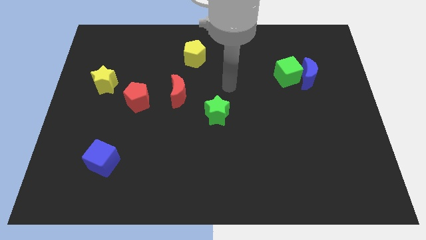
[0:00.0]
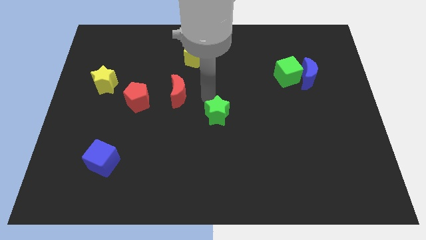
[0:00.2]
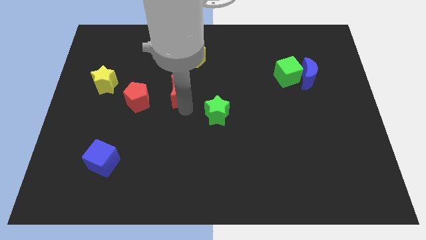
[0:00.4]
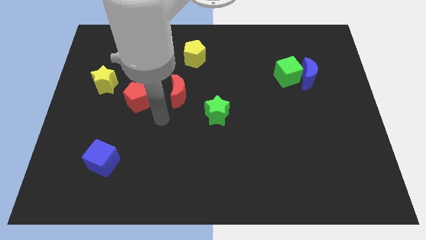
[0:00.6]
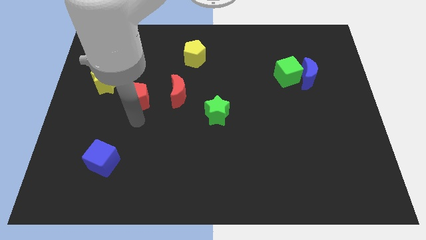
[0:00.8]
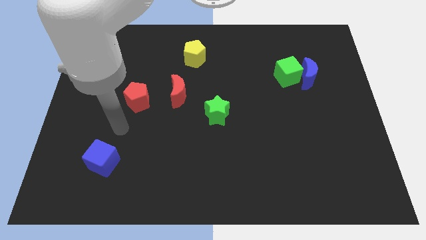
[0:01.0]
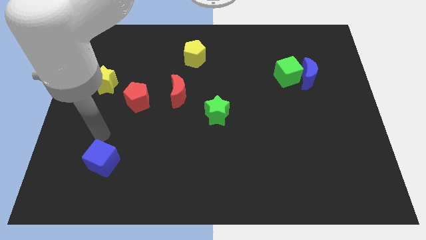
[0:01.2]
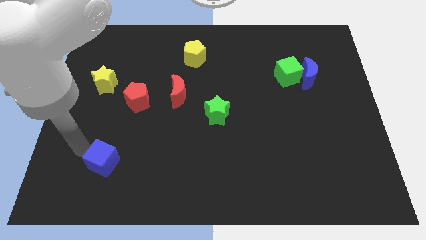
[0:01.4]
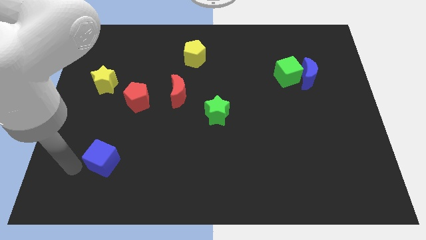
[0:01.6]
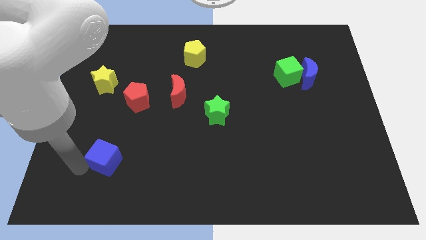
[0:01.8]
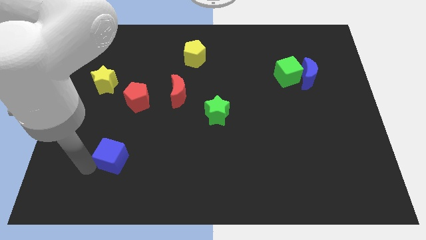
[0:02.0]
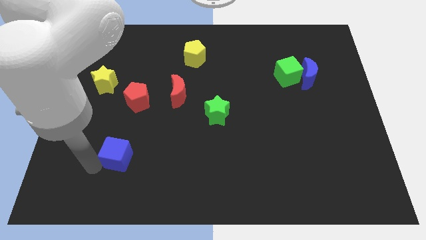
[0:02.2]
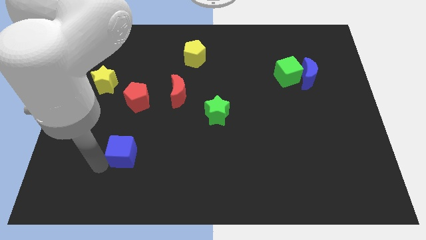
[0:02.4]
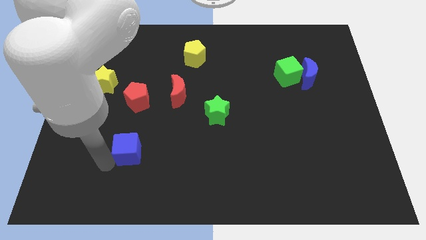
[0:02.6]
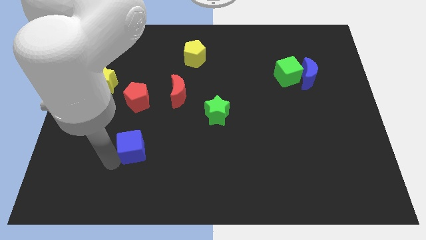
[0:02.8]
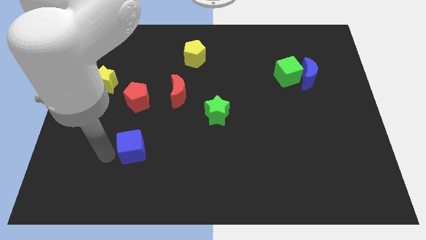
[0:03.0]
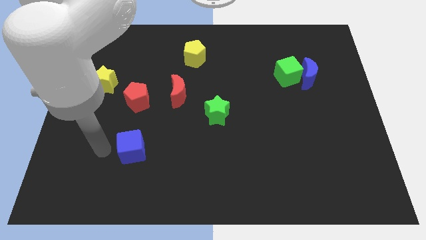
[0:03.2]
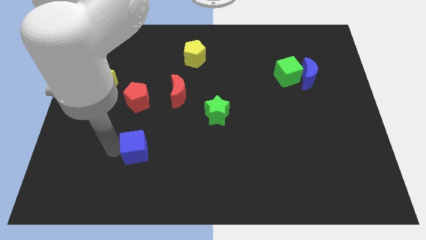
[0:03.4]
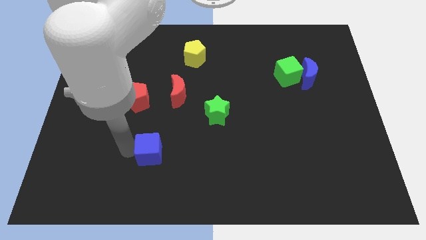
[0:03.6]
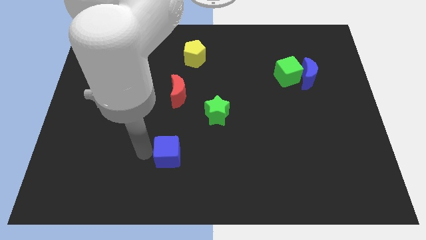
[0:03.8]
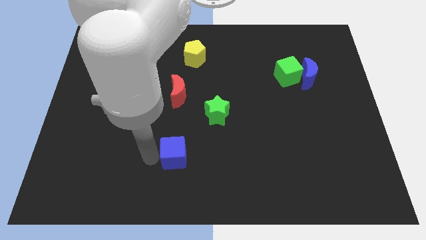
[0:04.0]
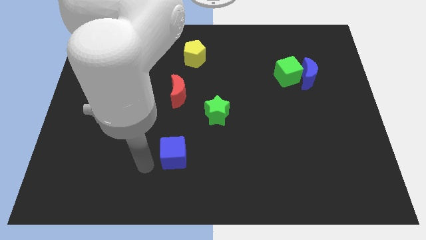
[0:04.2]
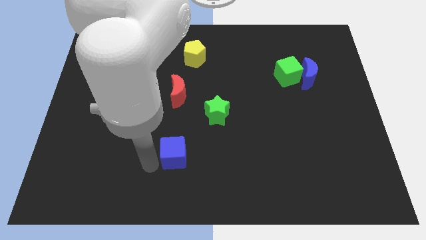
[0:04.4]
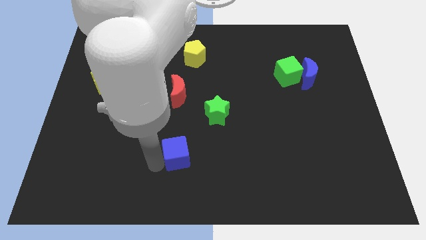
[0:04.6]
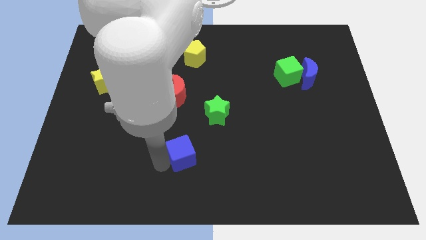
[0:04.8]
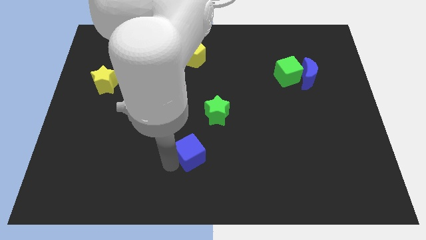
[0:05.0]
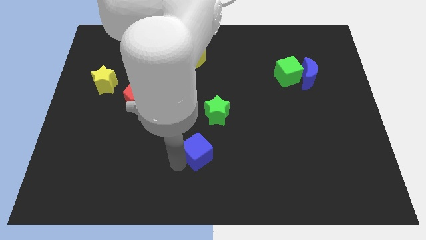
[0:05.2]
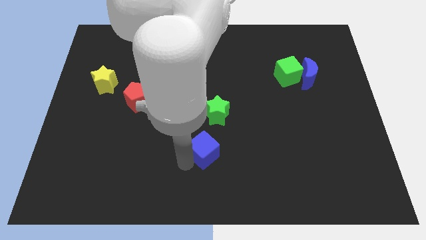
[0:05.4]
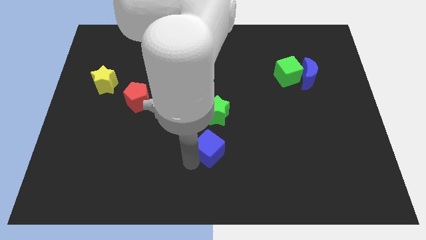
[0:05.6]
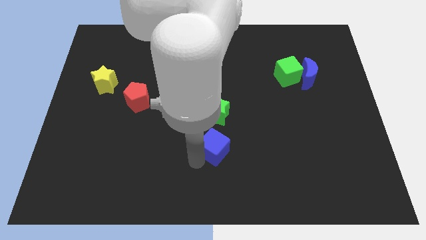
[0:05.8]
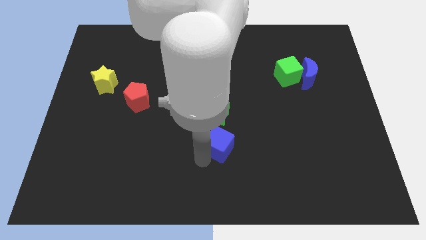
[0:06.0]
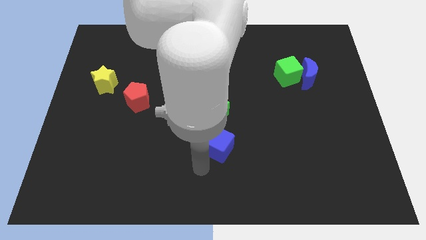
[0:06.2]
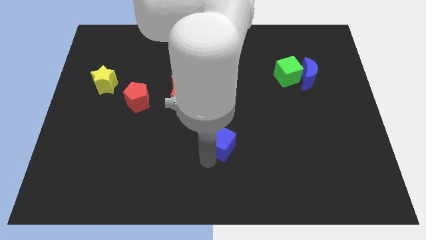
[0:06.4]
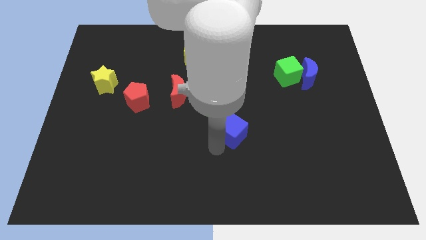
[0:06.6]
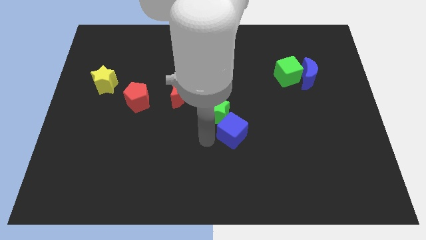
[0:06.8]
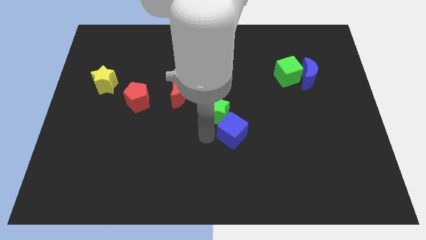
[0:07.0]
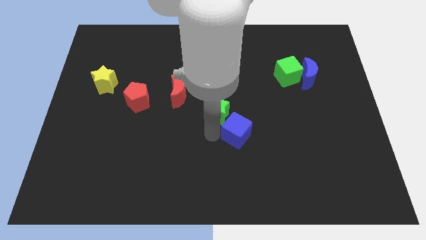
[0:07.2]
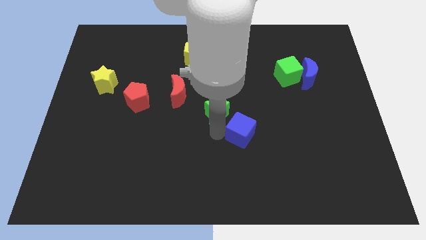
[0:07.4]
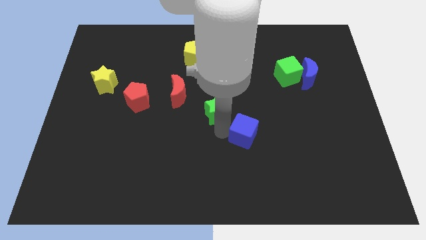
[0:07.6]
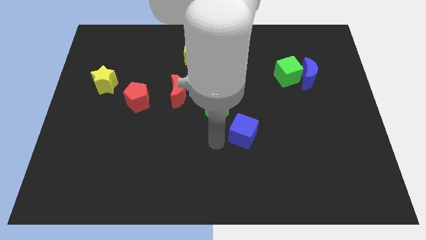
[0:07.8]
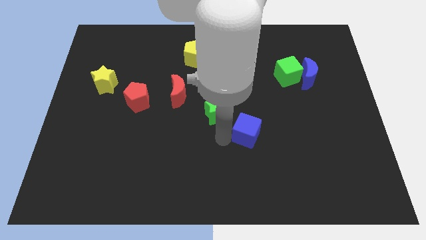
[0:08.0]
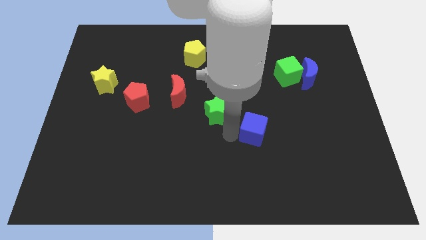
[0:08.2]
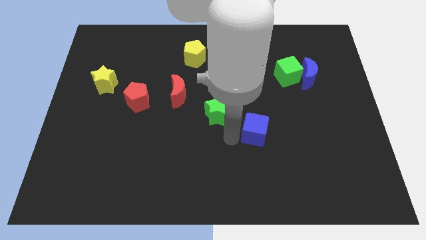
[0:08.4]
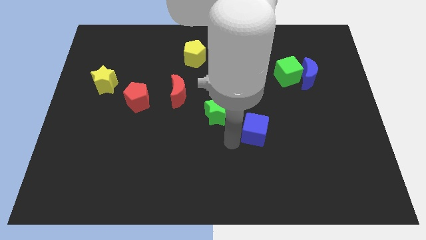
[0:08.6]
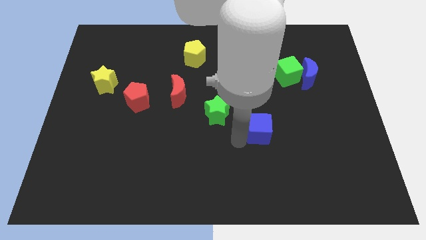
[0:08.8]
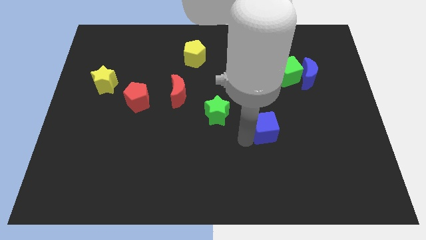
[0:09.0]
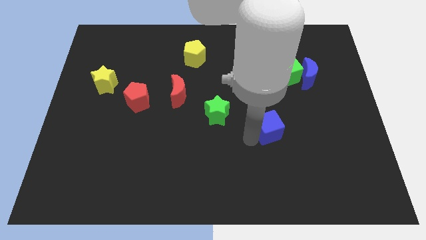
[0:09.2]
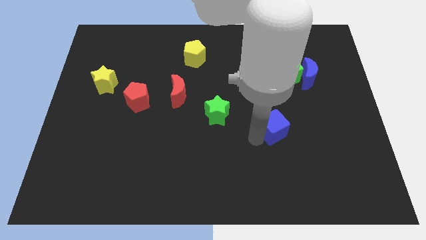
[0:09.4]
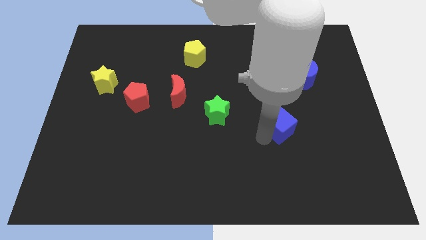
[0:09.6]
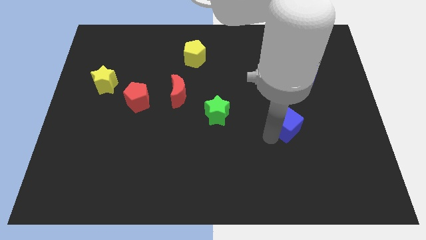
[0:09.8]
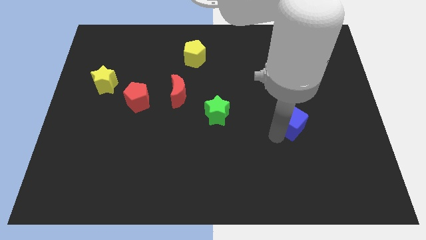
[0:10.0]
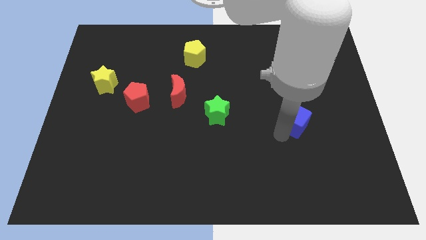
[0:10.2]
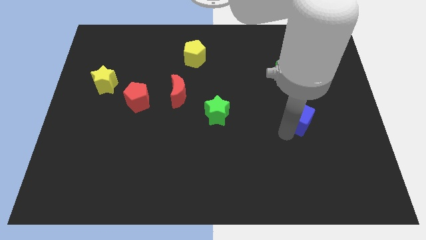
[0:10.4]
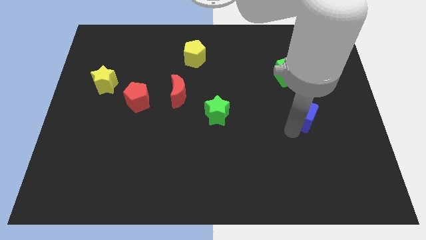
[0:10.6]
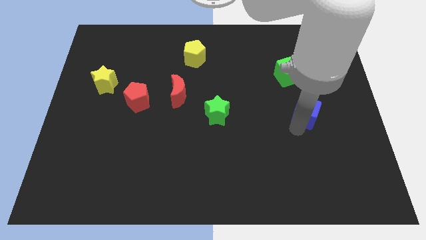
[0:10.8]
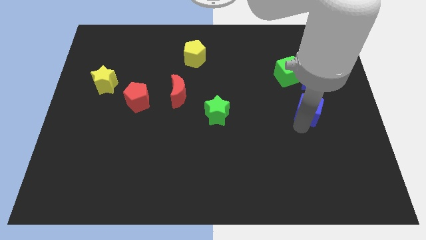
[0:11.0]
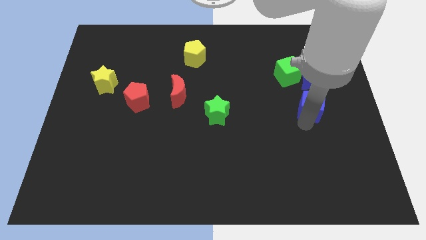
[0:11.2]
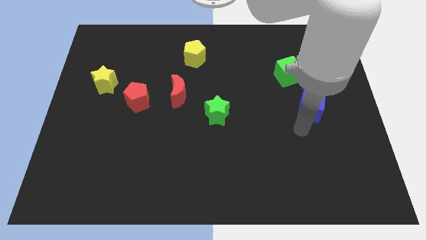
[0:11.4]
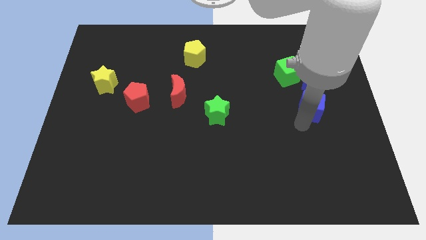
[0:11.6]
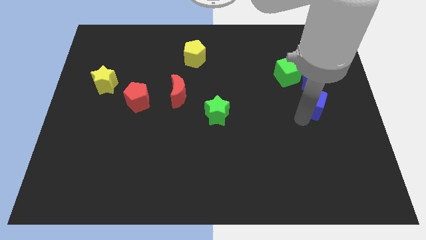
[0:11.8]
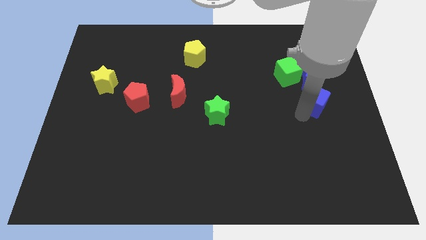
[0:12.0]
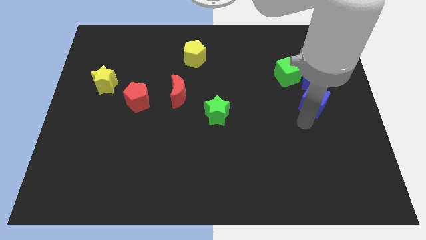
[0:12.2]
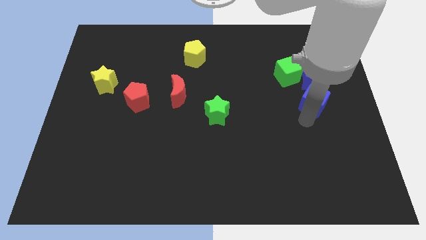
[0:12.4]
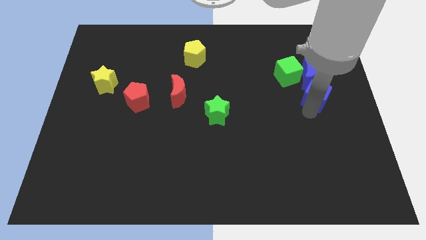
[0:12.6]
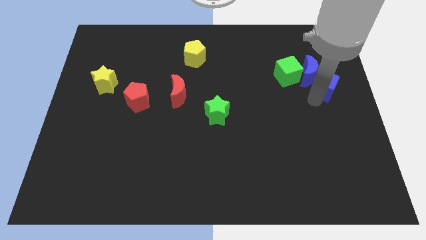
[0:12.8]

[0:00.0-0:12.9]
push the blue cube to the right side of the green cube
